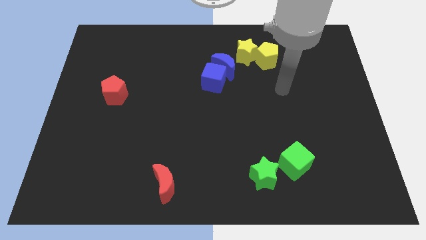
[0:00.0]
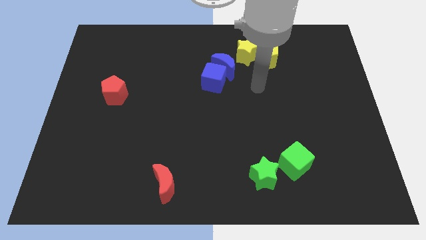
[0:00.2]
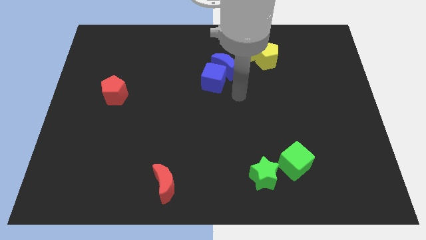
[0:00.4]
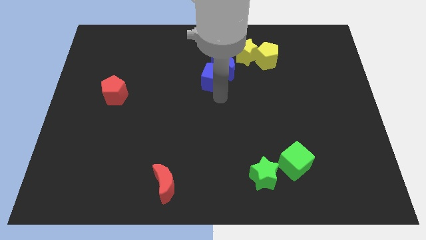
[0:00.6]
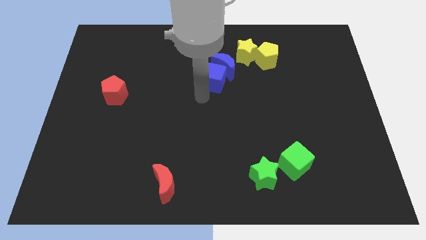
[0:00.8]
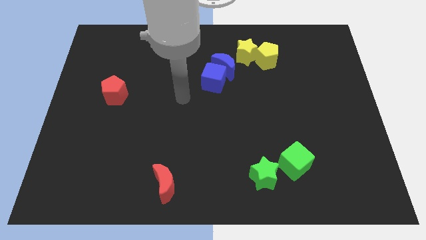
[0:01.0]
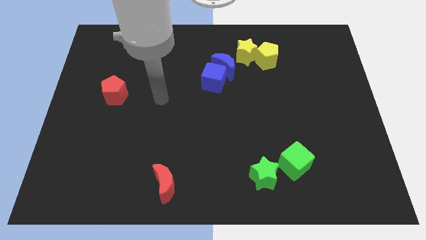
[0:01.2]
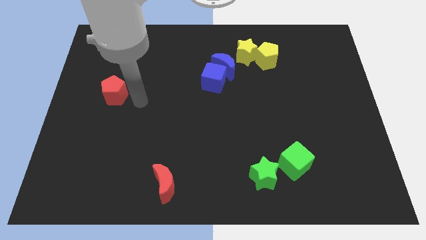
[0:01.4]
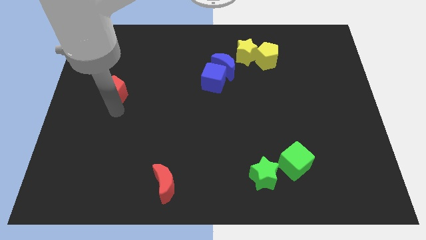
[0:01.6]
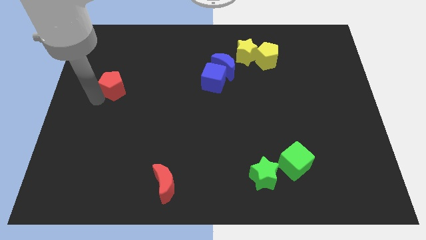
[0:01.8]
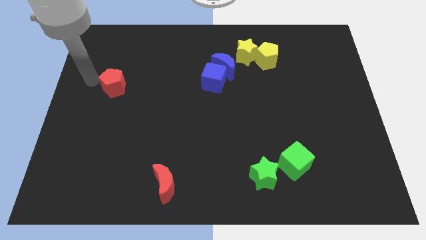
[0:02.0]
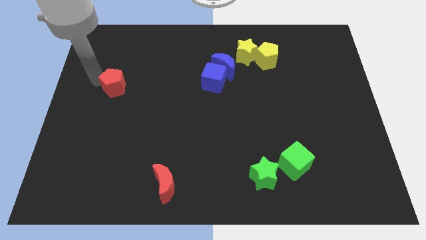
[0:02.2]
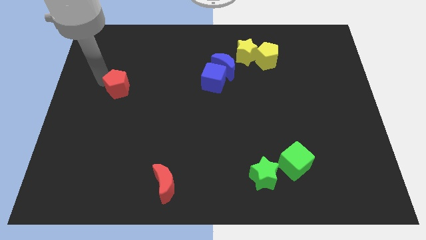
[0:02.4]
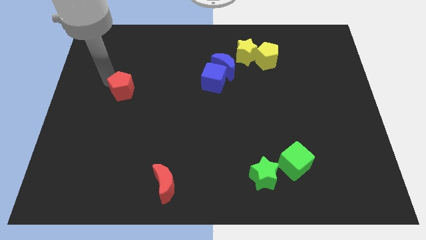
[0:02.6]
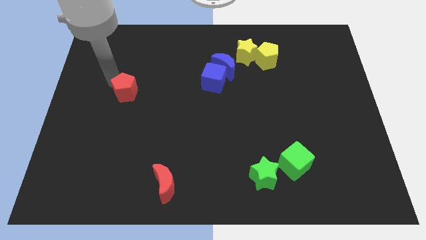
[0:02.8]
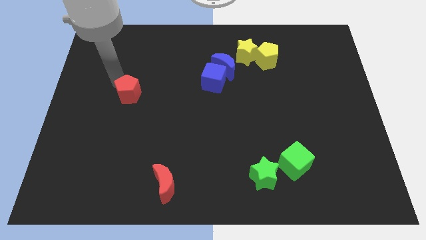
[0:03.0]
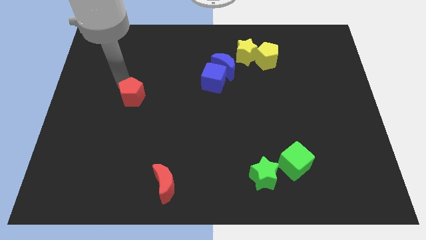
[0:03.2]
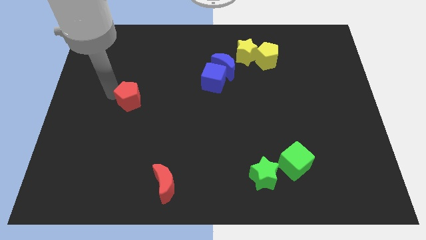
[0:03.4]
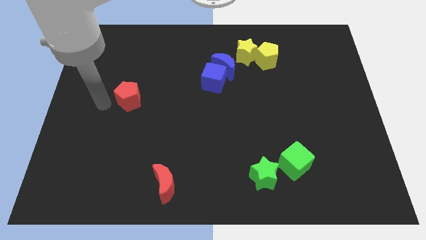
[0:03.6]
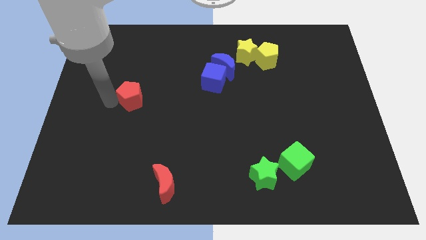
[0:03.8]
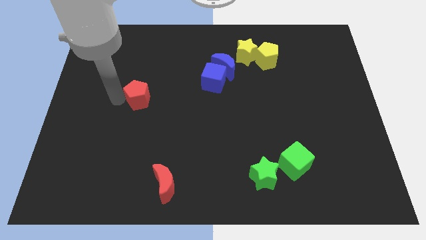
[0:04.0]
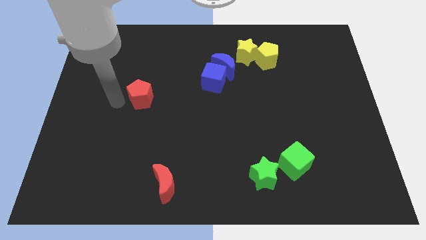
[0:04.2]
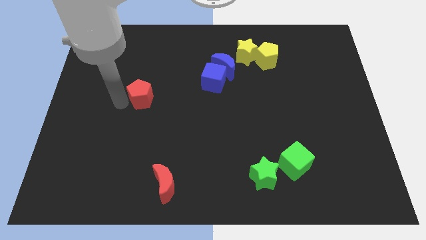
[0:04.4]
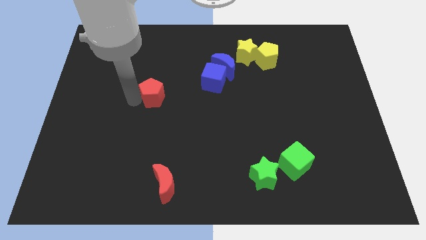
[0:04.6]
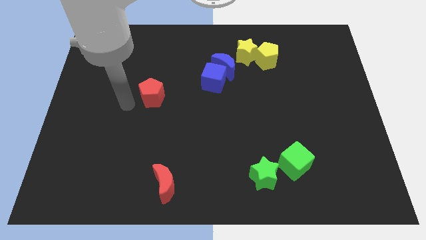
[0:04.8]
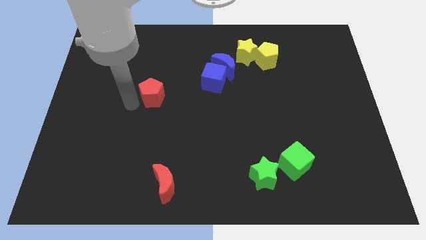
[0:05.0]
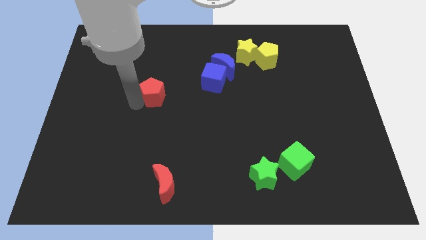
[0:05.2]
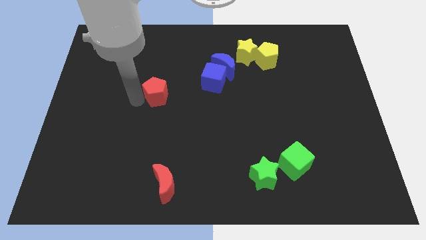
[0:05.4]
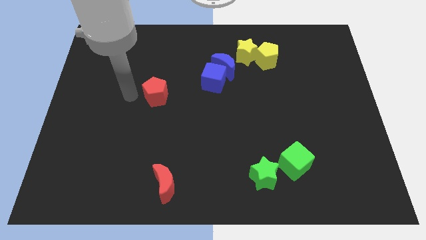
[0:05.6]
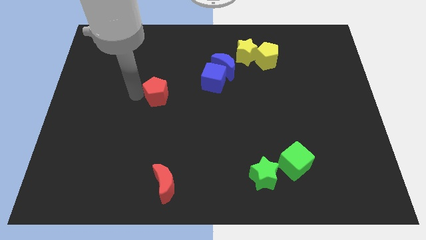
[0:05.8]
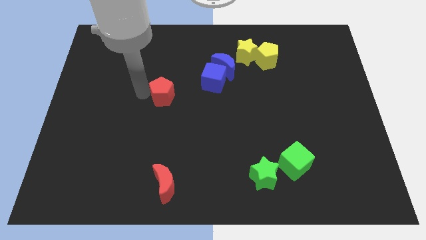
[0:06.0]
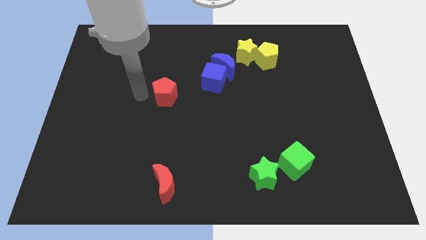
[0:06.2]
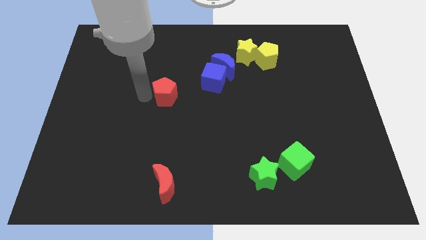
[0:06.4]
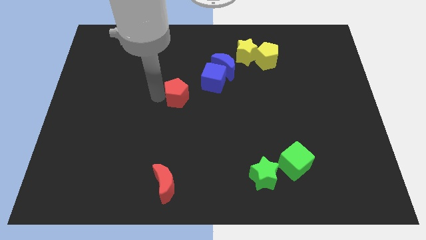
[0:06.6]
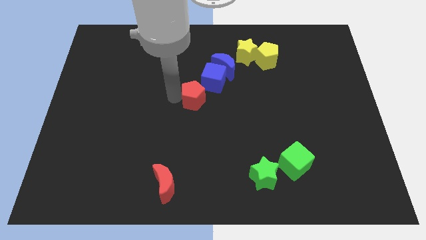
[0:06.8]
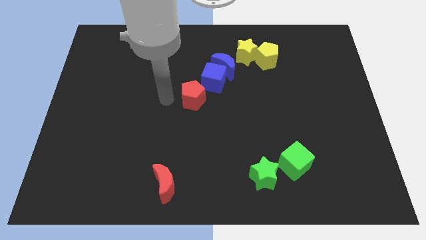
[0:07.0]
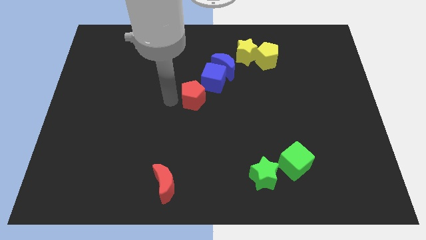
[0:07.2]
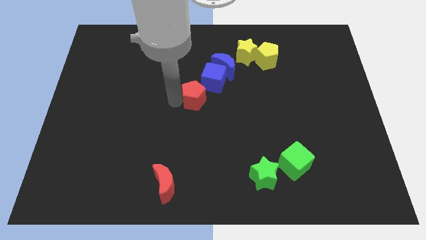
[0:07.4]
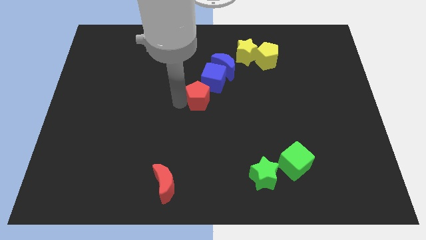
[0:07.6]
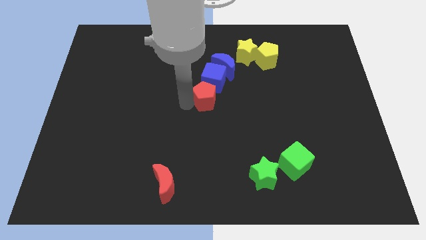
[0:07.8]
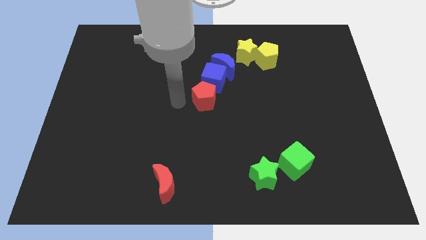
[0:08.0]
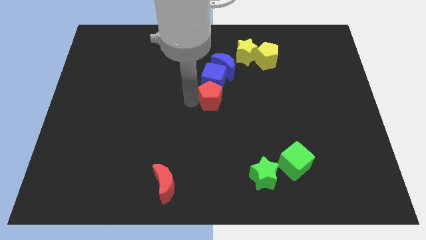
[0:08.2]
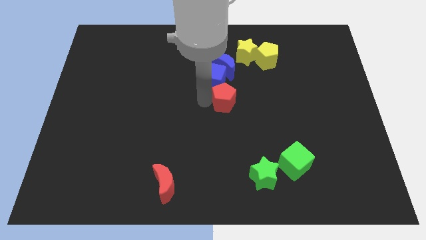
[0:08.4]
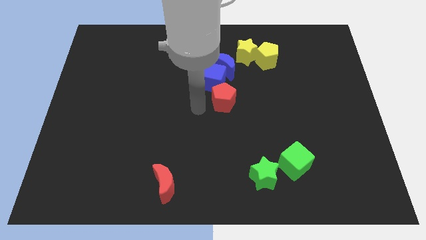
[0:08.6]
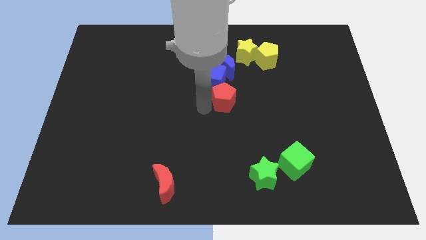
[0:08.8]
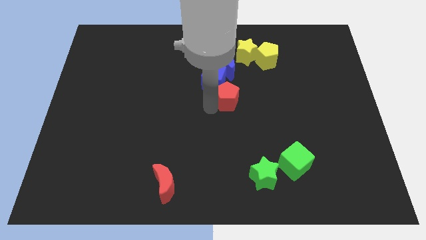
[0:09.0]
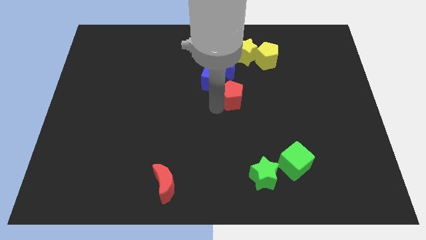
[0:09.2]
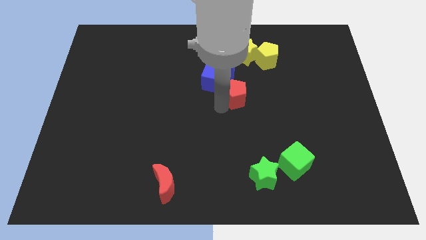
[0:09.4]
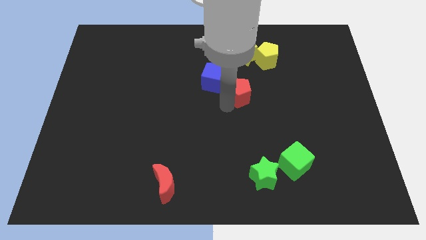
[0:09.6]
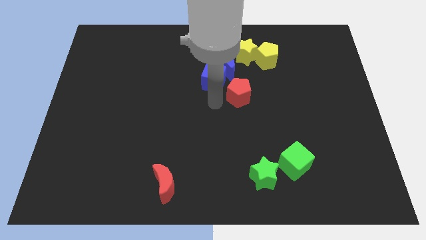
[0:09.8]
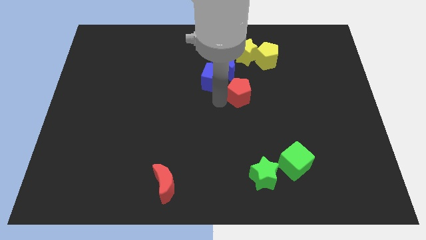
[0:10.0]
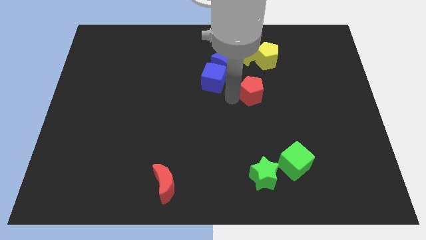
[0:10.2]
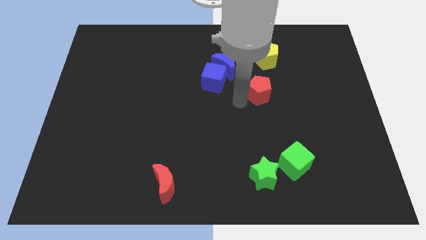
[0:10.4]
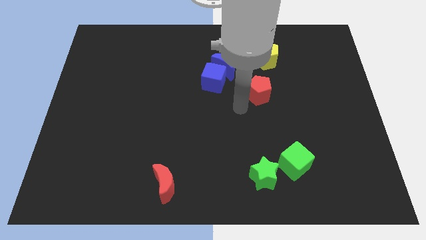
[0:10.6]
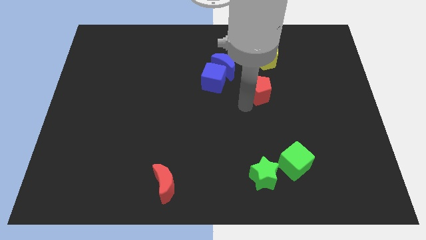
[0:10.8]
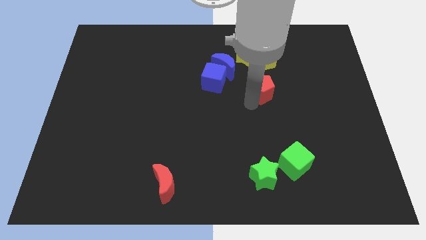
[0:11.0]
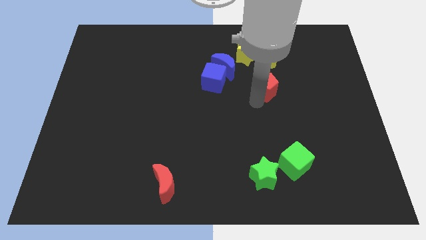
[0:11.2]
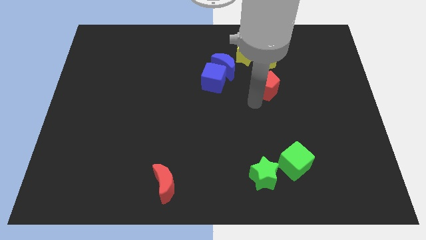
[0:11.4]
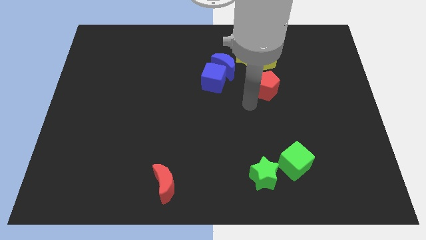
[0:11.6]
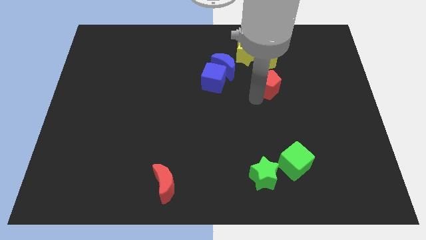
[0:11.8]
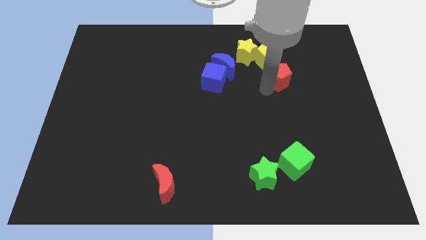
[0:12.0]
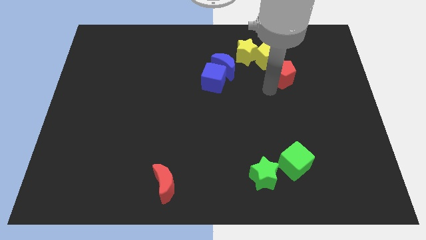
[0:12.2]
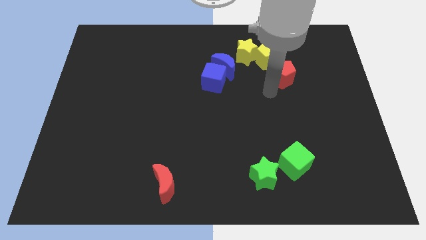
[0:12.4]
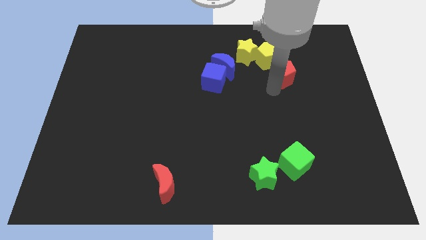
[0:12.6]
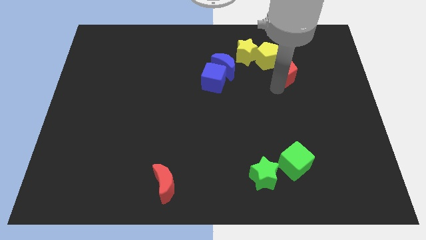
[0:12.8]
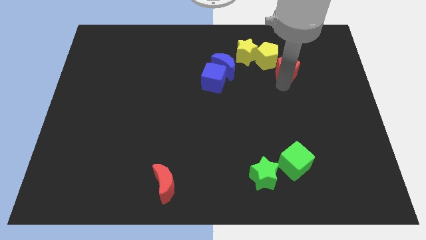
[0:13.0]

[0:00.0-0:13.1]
move the red pentagon to the right side of the yellow pentagon

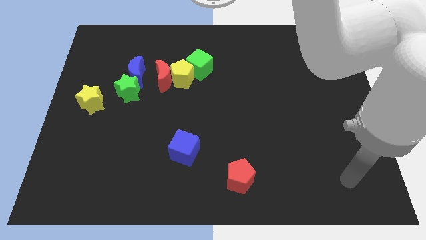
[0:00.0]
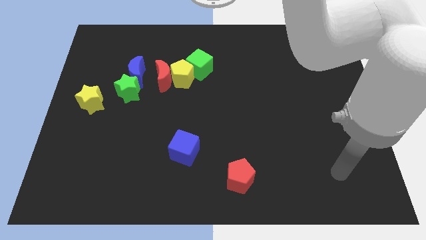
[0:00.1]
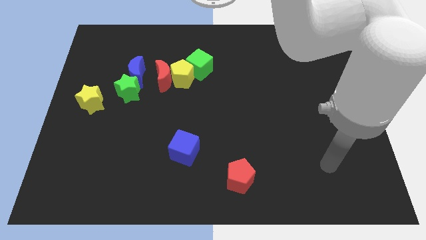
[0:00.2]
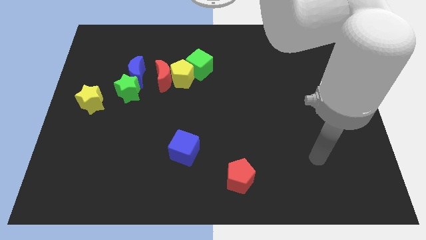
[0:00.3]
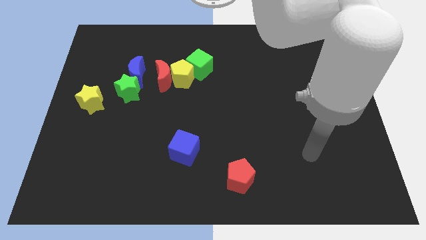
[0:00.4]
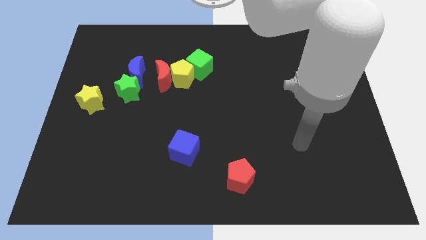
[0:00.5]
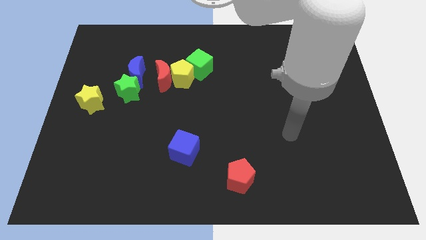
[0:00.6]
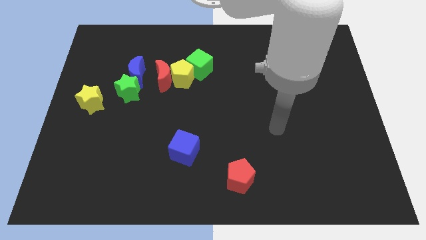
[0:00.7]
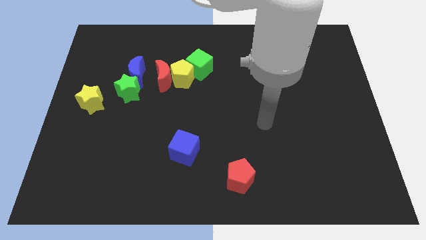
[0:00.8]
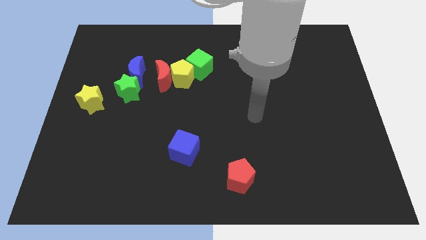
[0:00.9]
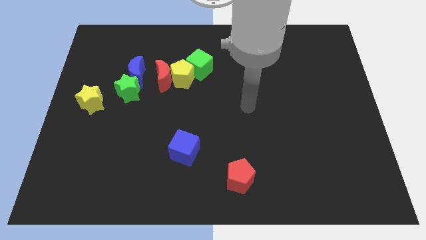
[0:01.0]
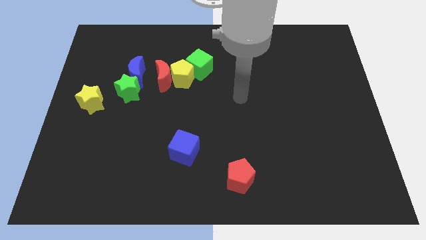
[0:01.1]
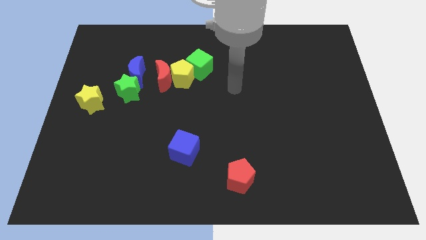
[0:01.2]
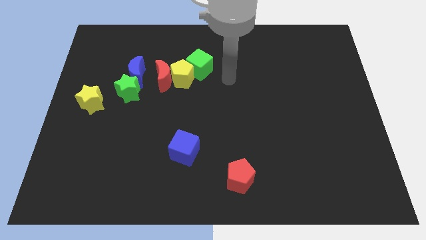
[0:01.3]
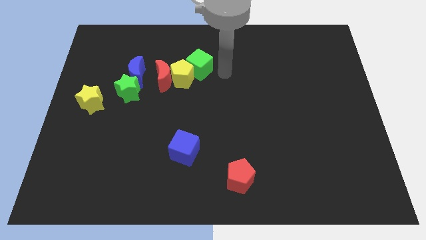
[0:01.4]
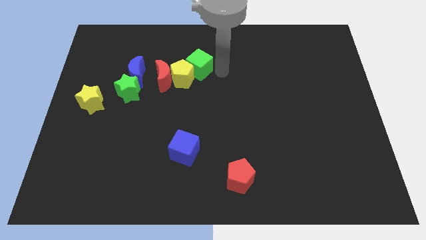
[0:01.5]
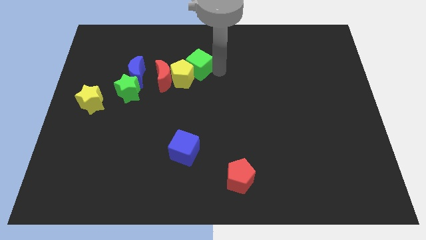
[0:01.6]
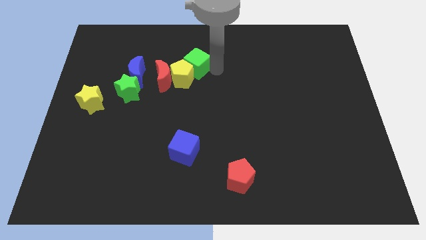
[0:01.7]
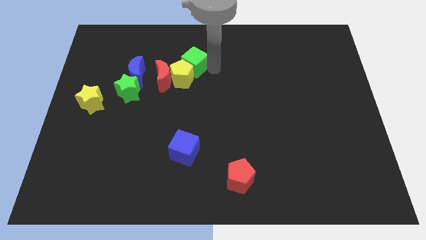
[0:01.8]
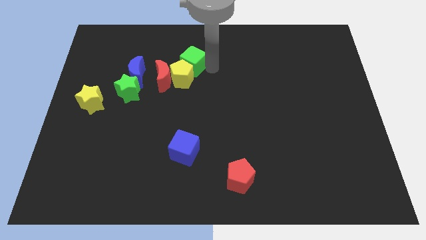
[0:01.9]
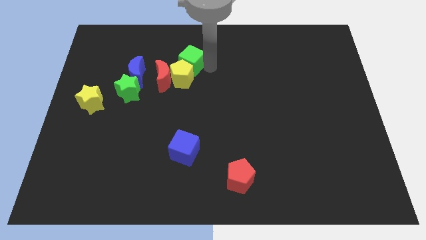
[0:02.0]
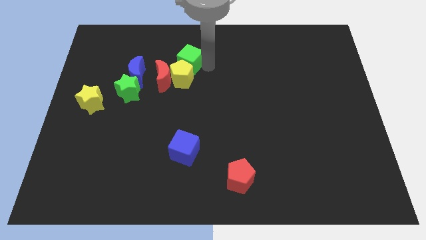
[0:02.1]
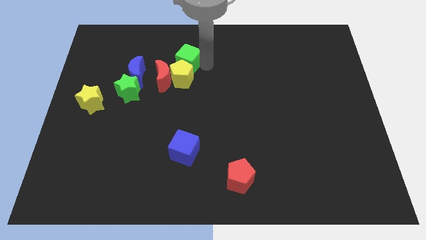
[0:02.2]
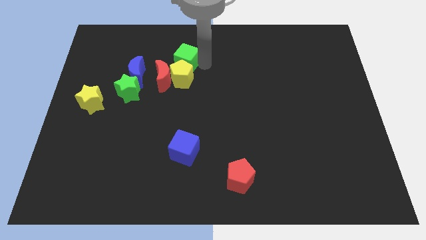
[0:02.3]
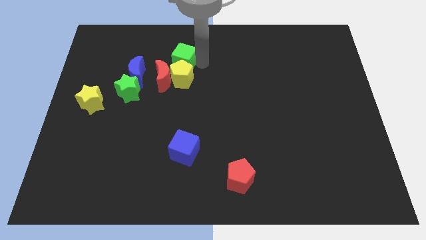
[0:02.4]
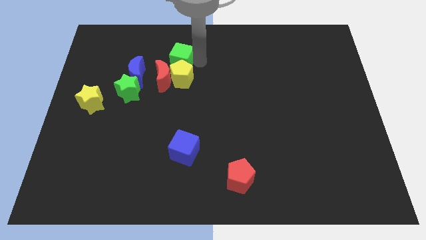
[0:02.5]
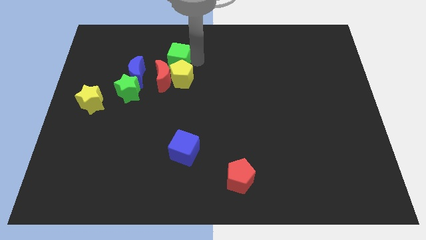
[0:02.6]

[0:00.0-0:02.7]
put the green cube to the top right of the blue moon
